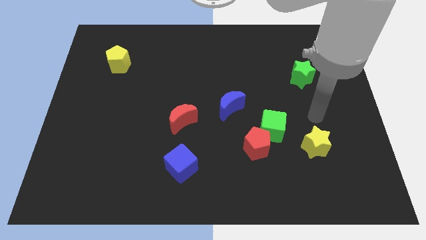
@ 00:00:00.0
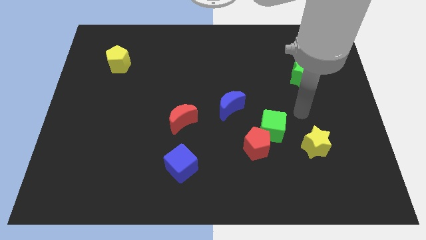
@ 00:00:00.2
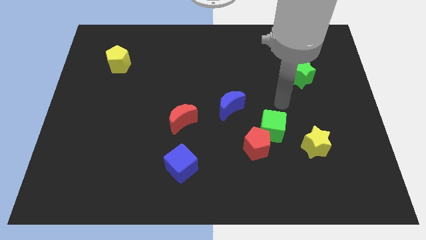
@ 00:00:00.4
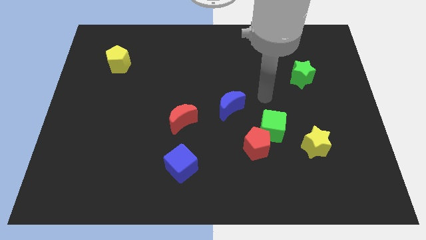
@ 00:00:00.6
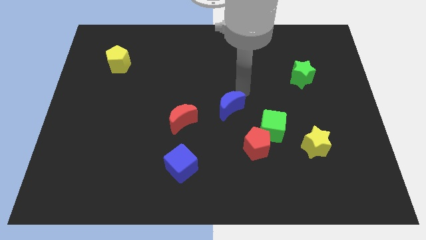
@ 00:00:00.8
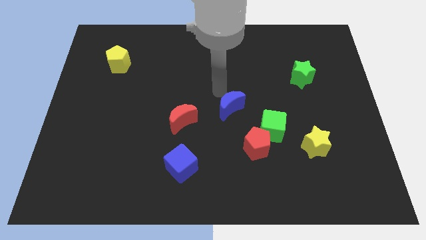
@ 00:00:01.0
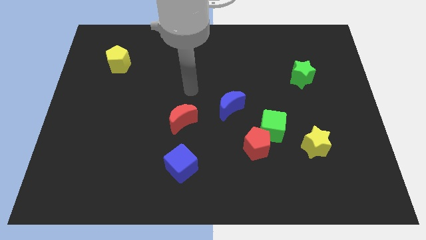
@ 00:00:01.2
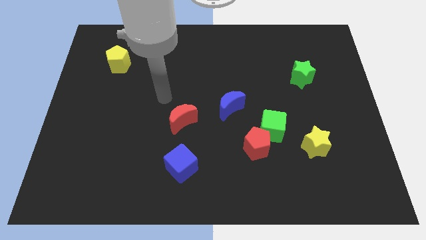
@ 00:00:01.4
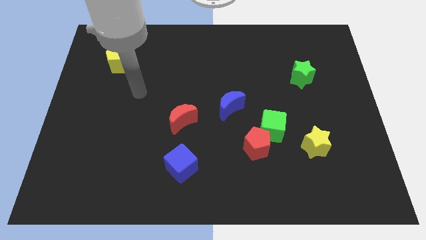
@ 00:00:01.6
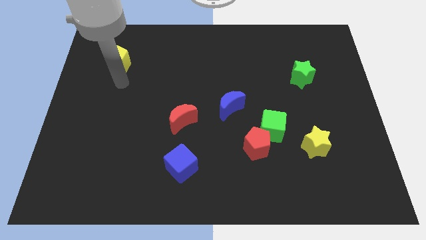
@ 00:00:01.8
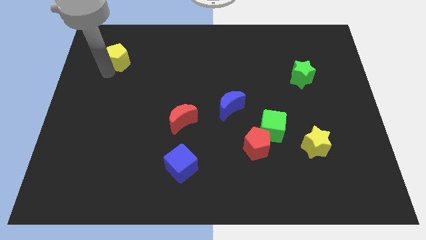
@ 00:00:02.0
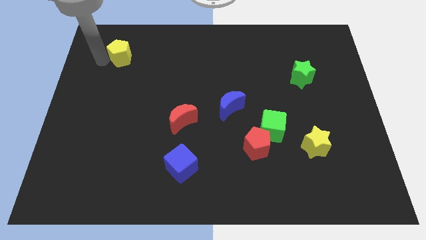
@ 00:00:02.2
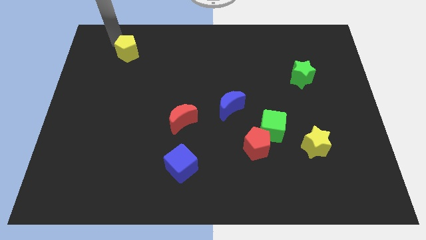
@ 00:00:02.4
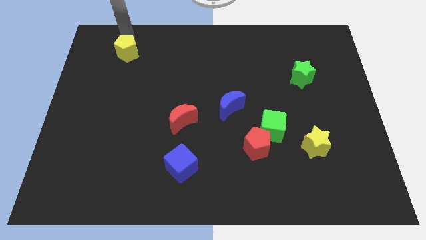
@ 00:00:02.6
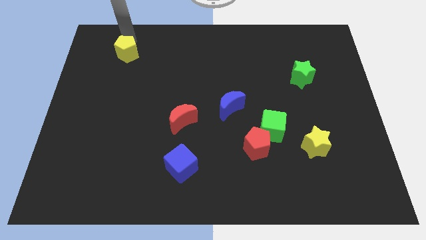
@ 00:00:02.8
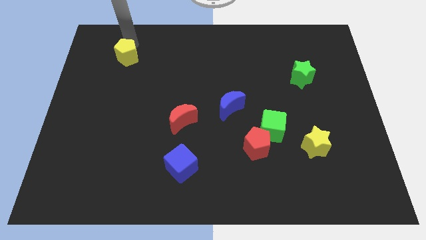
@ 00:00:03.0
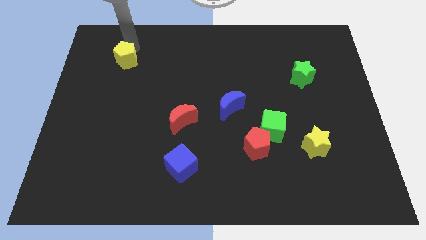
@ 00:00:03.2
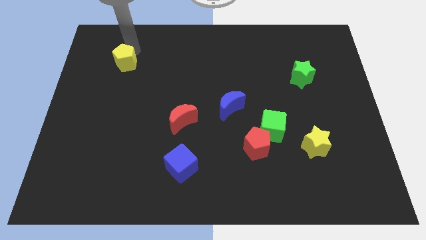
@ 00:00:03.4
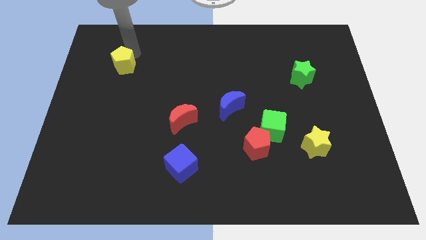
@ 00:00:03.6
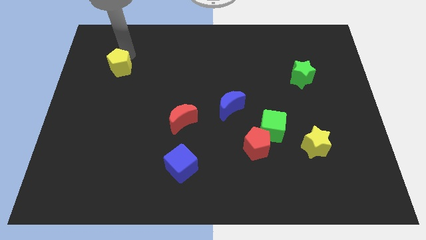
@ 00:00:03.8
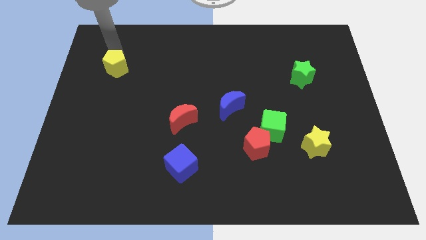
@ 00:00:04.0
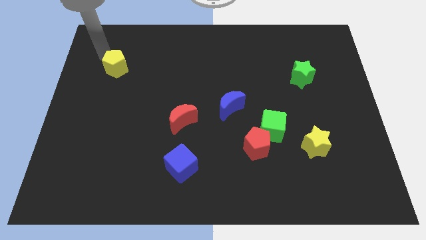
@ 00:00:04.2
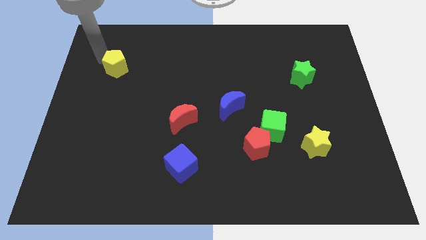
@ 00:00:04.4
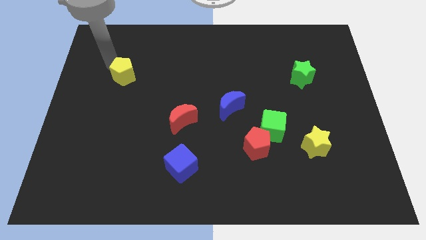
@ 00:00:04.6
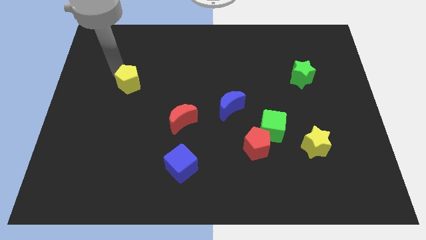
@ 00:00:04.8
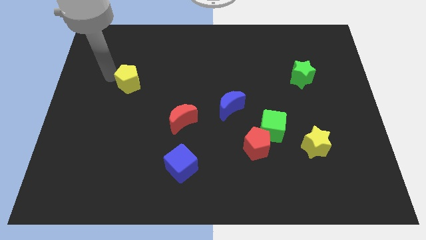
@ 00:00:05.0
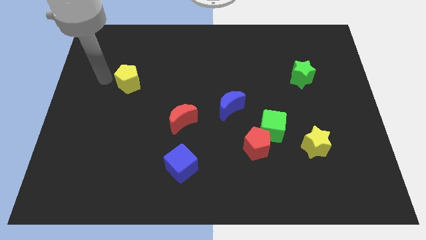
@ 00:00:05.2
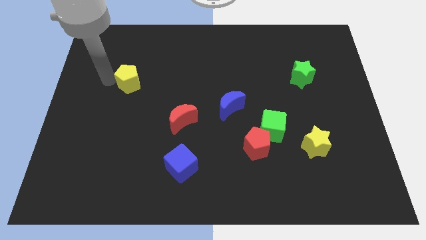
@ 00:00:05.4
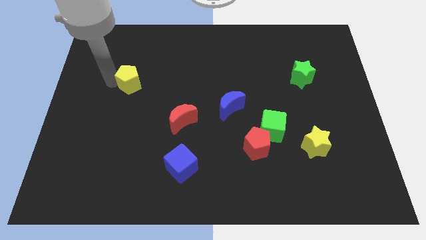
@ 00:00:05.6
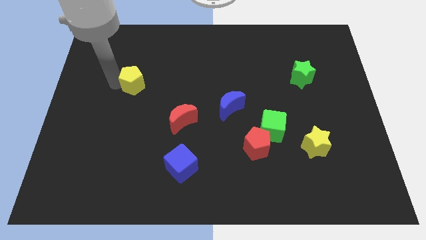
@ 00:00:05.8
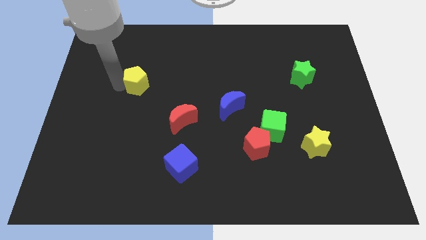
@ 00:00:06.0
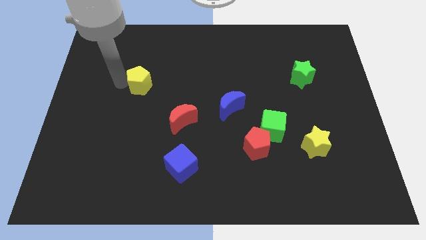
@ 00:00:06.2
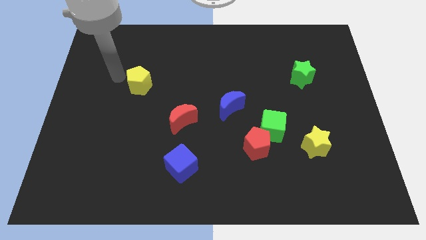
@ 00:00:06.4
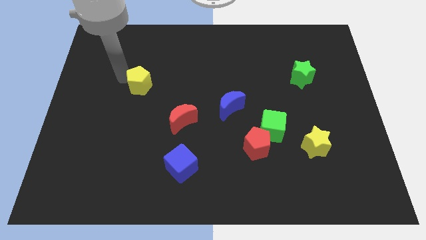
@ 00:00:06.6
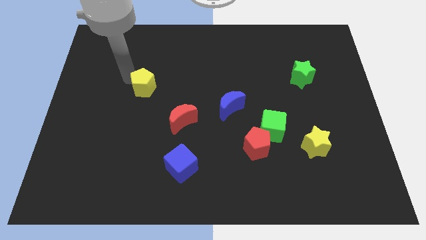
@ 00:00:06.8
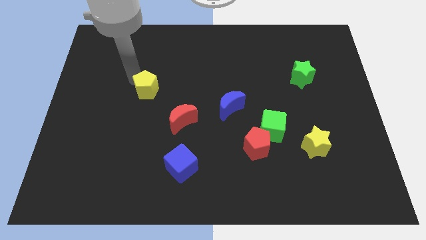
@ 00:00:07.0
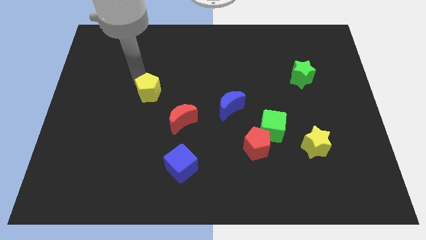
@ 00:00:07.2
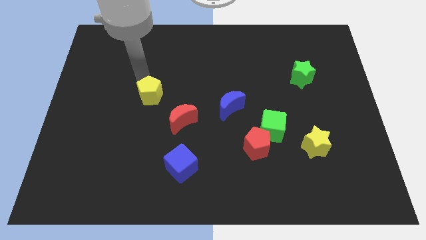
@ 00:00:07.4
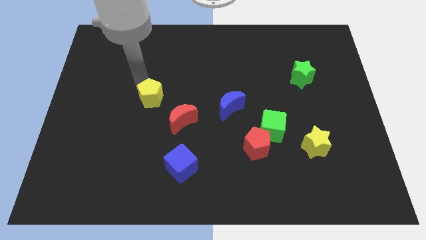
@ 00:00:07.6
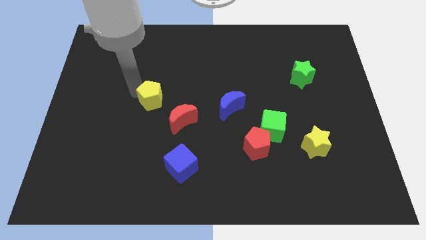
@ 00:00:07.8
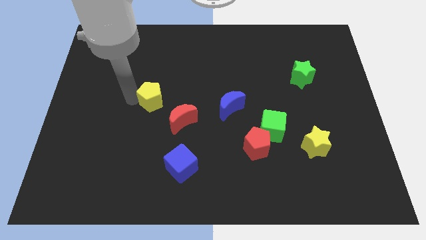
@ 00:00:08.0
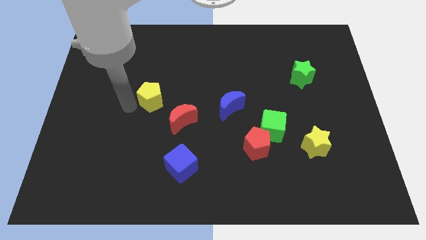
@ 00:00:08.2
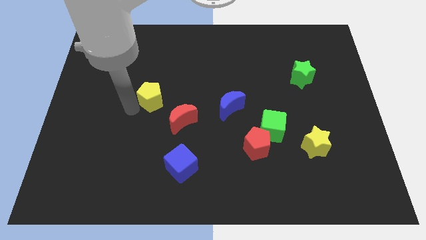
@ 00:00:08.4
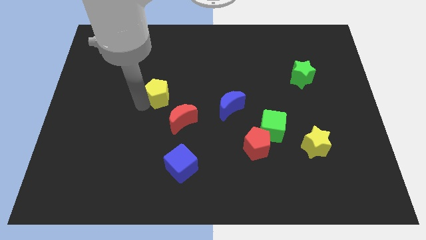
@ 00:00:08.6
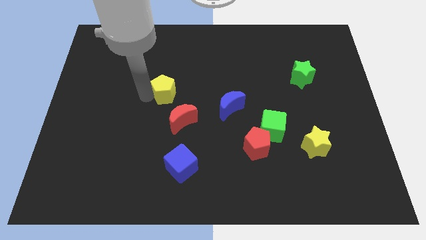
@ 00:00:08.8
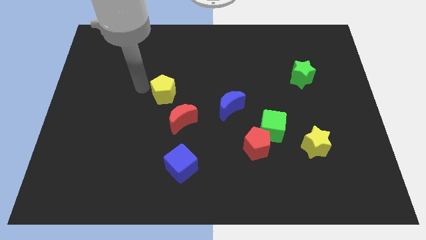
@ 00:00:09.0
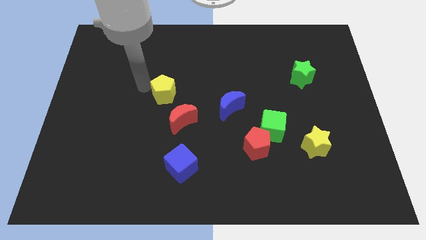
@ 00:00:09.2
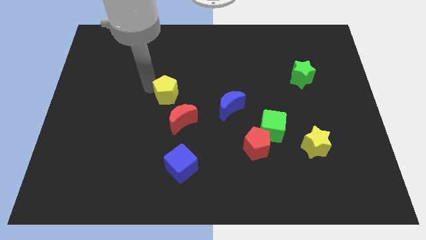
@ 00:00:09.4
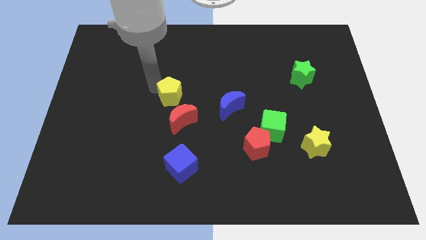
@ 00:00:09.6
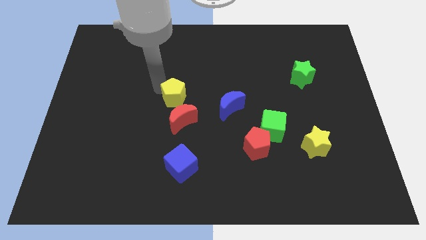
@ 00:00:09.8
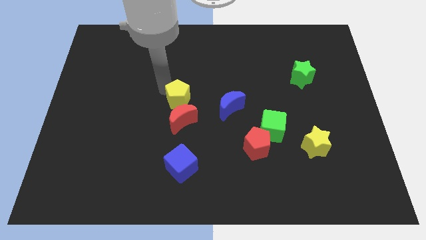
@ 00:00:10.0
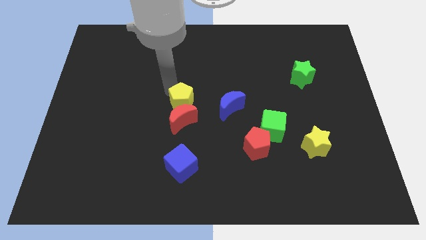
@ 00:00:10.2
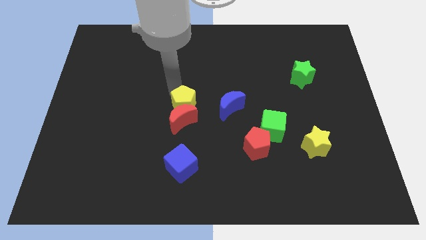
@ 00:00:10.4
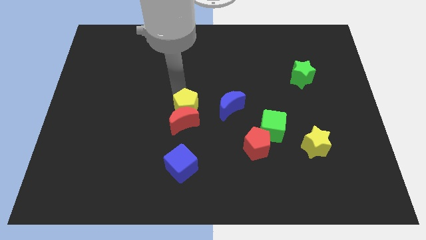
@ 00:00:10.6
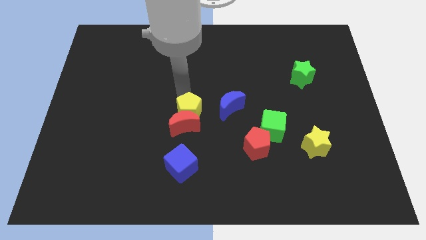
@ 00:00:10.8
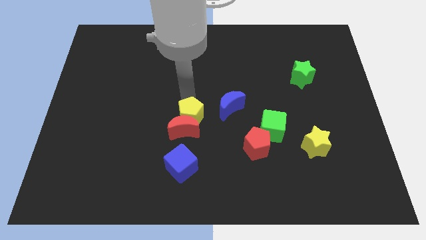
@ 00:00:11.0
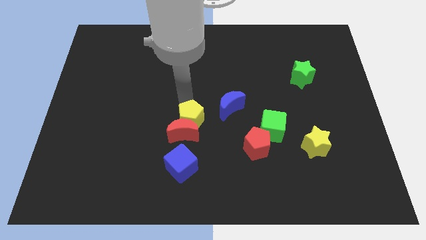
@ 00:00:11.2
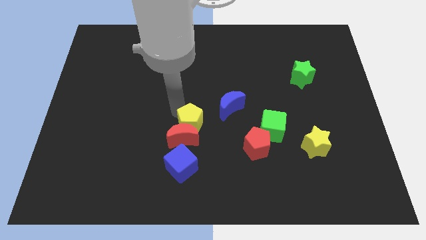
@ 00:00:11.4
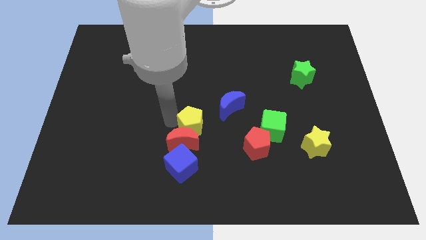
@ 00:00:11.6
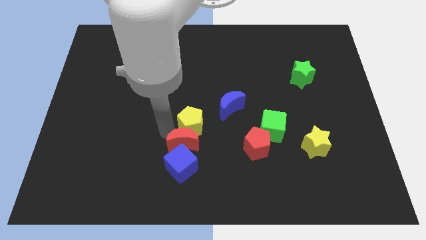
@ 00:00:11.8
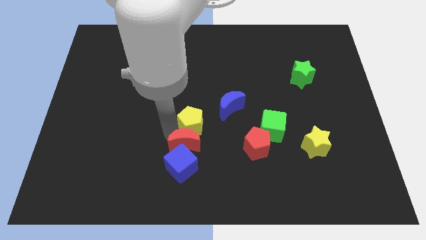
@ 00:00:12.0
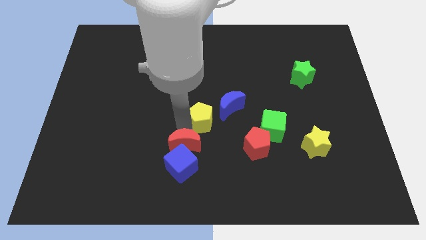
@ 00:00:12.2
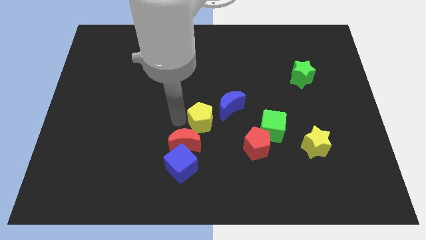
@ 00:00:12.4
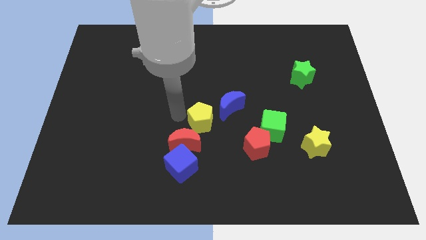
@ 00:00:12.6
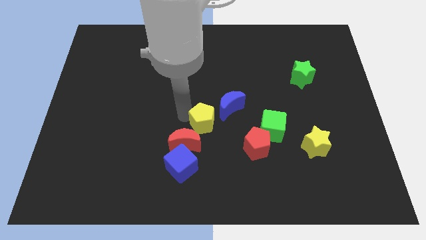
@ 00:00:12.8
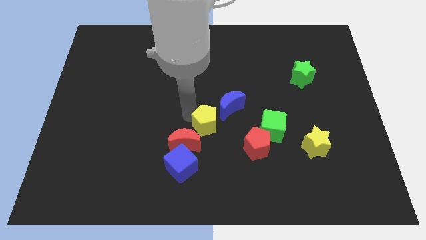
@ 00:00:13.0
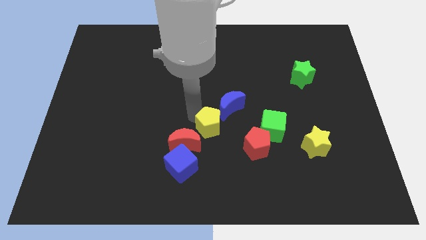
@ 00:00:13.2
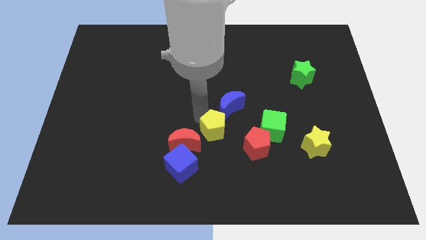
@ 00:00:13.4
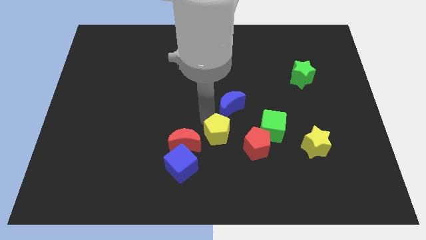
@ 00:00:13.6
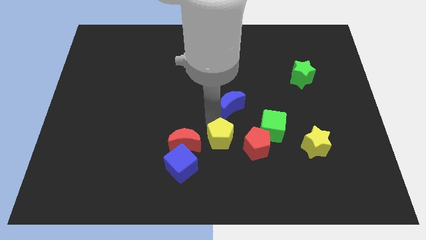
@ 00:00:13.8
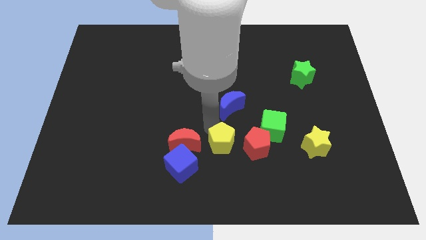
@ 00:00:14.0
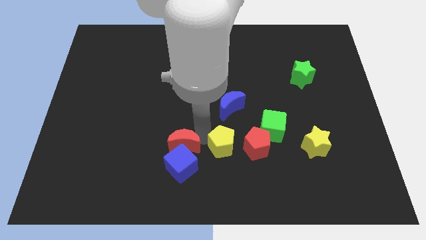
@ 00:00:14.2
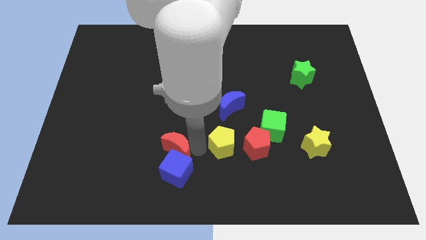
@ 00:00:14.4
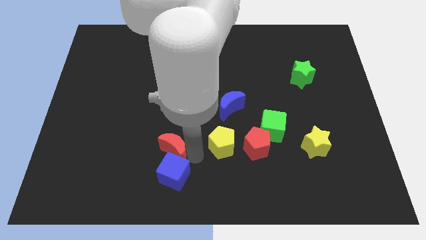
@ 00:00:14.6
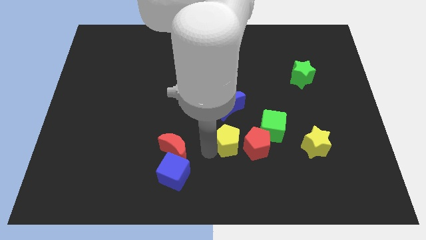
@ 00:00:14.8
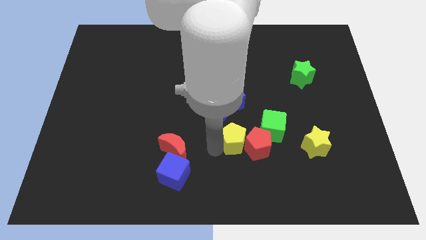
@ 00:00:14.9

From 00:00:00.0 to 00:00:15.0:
push the yellow pentagon to the red pentagon

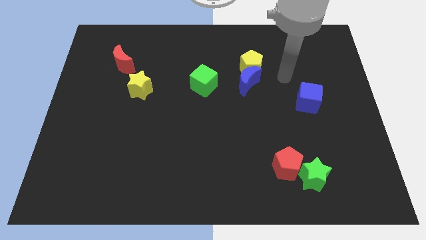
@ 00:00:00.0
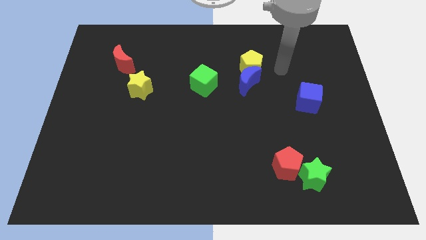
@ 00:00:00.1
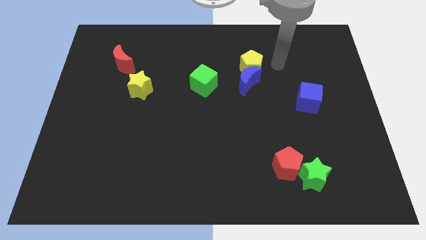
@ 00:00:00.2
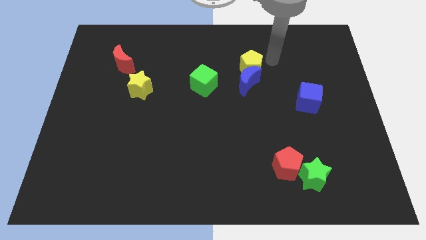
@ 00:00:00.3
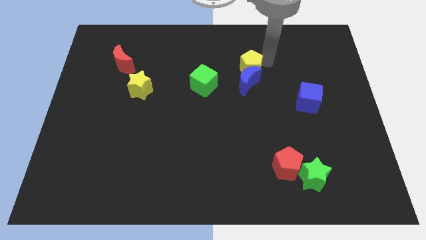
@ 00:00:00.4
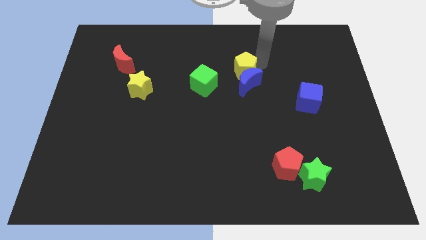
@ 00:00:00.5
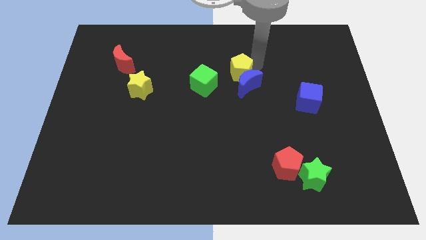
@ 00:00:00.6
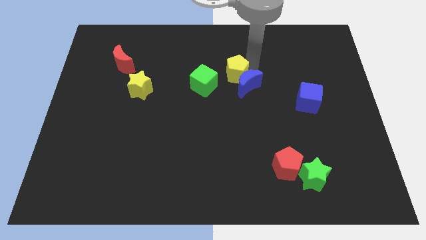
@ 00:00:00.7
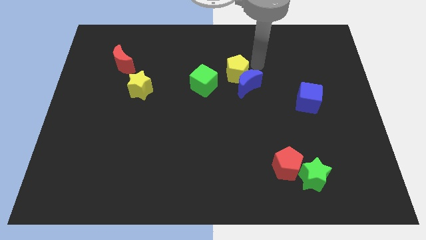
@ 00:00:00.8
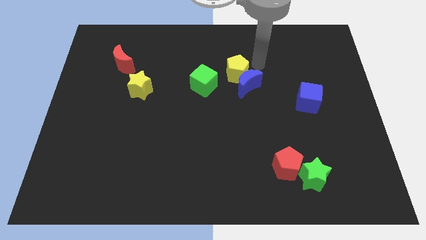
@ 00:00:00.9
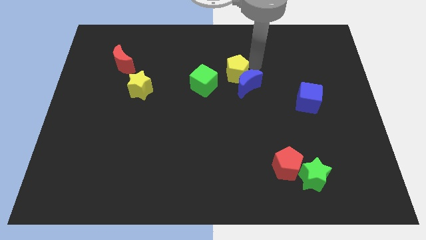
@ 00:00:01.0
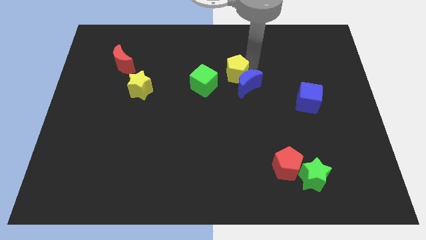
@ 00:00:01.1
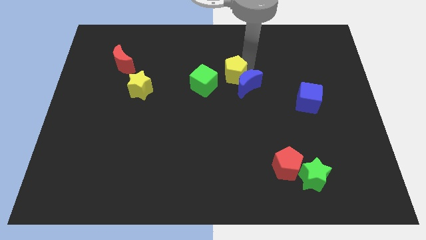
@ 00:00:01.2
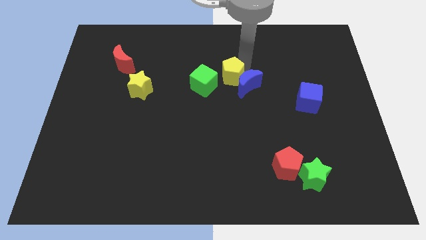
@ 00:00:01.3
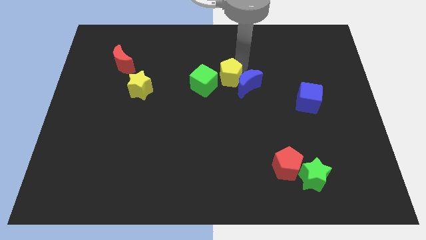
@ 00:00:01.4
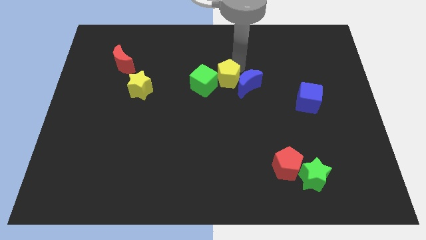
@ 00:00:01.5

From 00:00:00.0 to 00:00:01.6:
slide the yellow pentagon to the green cube
